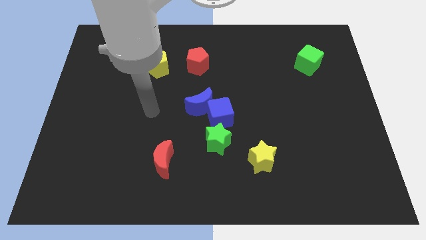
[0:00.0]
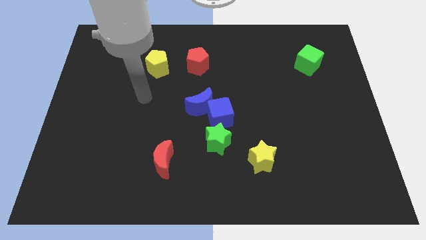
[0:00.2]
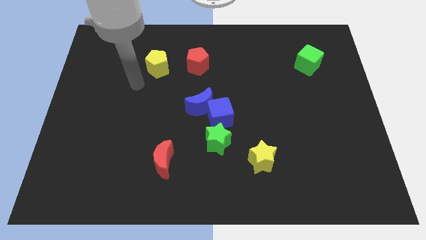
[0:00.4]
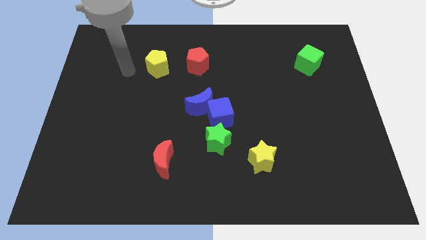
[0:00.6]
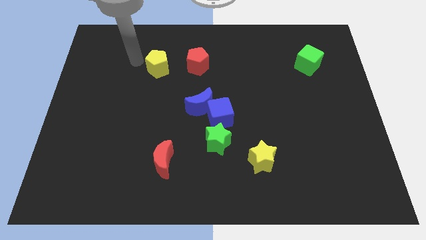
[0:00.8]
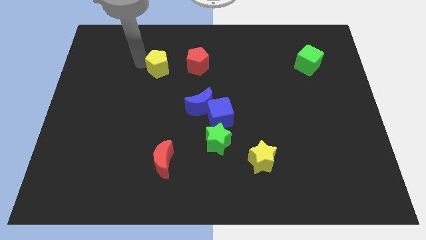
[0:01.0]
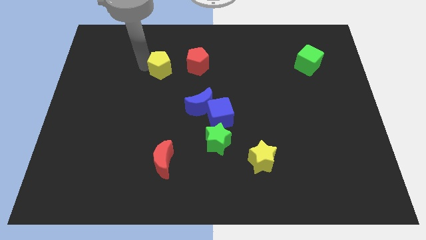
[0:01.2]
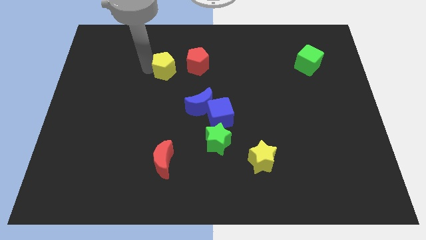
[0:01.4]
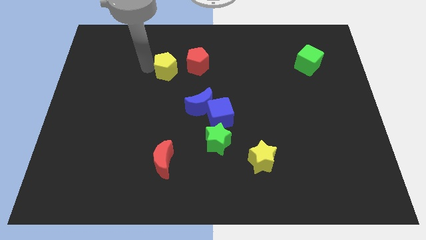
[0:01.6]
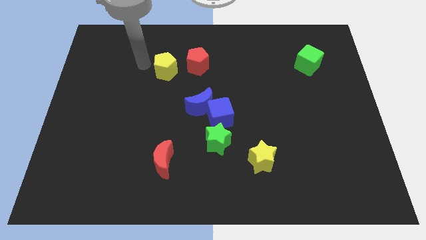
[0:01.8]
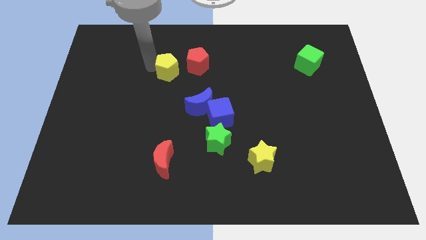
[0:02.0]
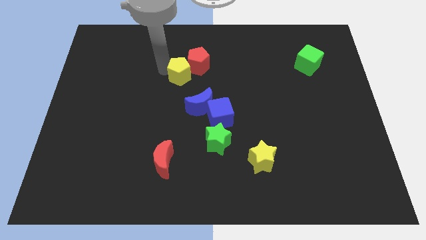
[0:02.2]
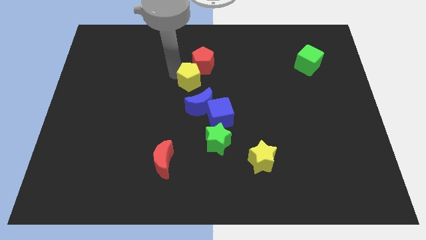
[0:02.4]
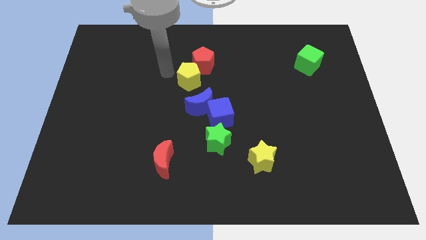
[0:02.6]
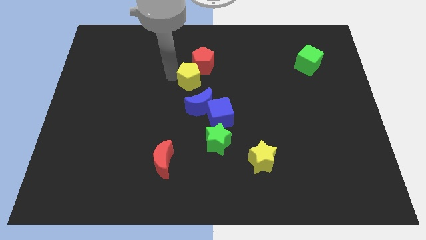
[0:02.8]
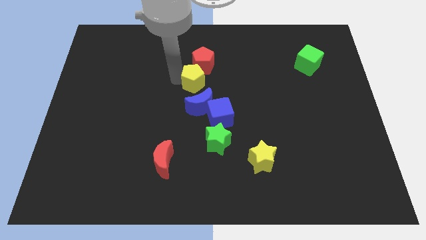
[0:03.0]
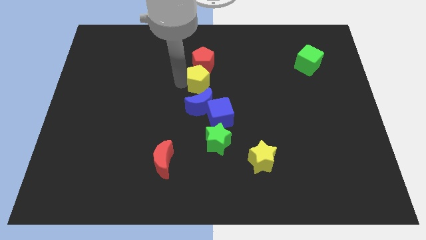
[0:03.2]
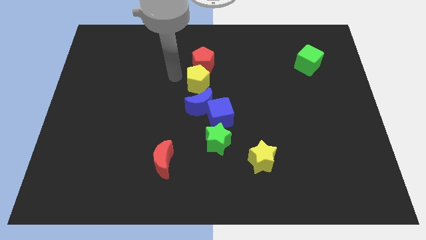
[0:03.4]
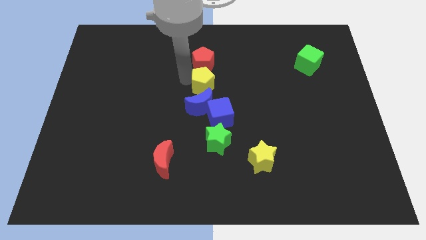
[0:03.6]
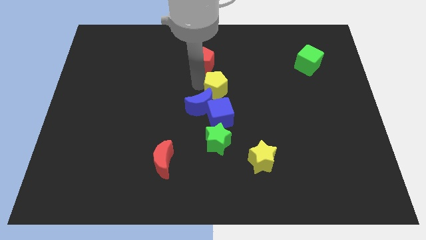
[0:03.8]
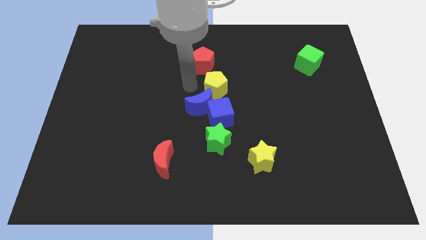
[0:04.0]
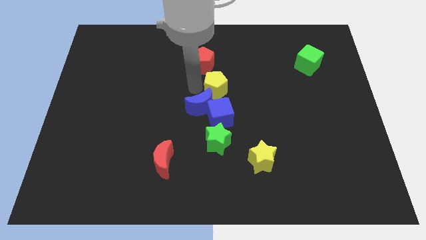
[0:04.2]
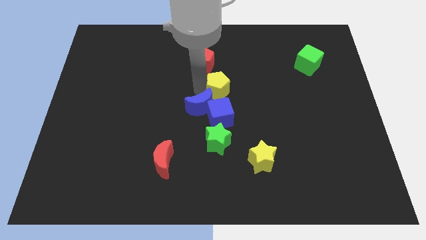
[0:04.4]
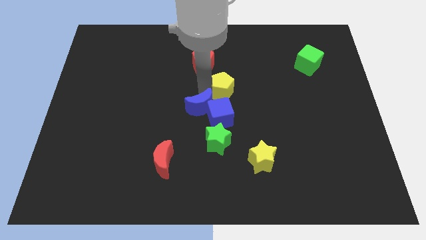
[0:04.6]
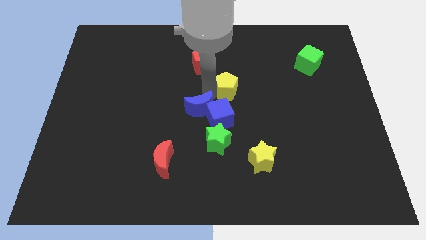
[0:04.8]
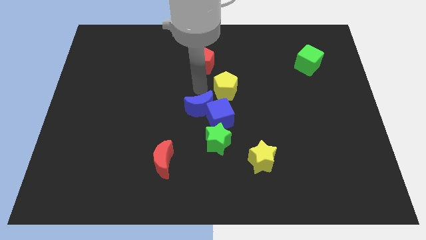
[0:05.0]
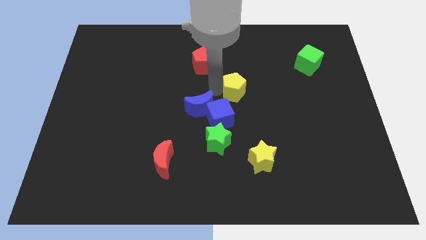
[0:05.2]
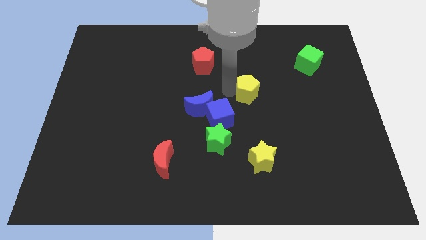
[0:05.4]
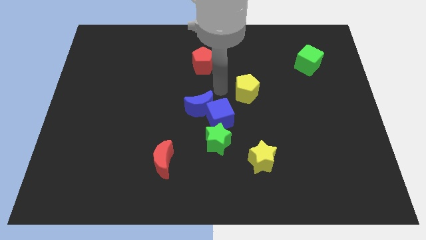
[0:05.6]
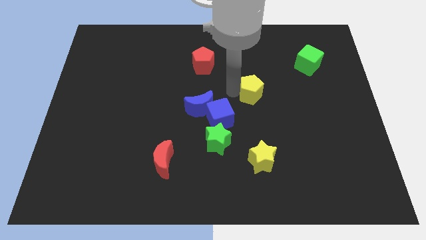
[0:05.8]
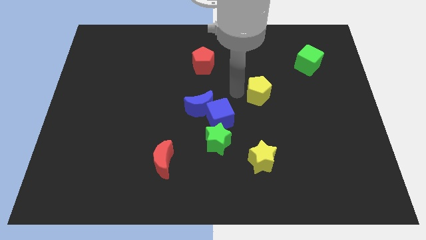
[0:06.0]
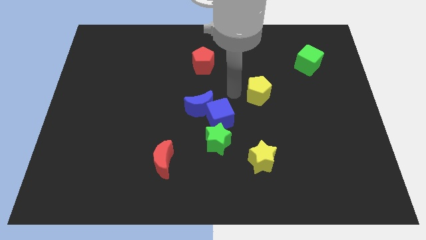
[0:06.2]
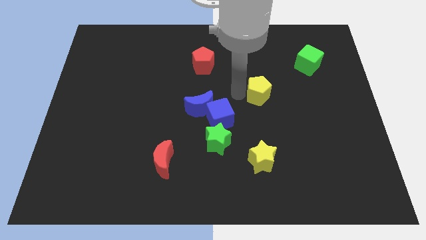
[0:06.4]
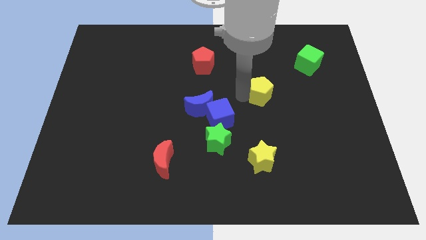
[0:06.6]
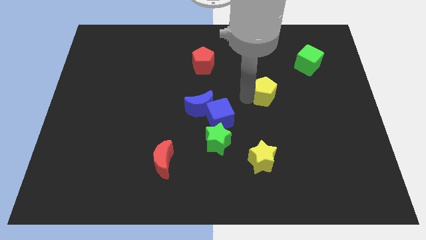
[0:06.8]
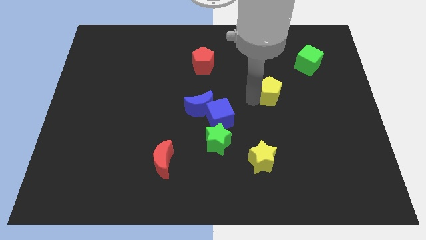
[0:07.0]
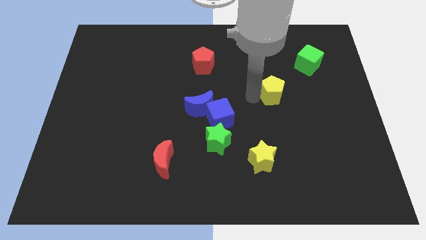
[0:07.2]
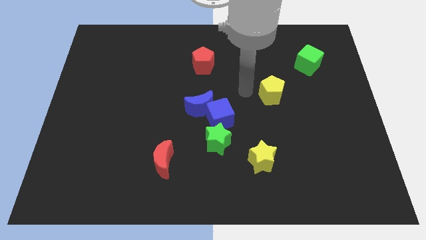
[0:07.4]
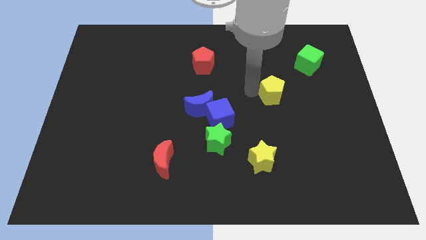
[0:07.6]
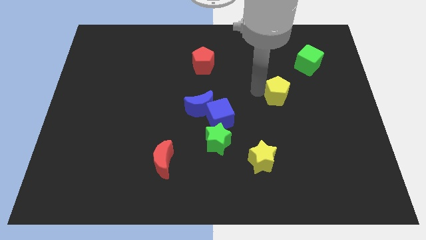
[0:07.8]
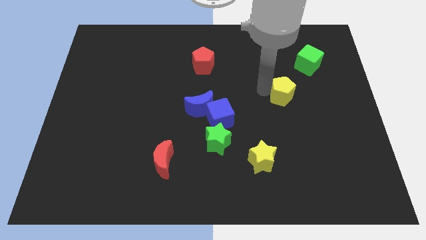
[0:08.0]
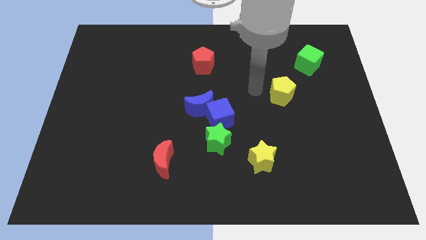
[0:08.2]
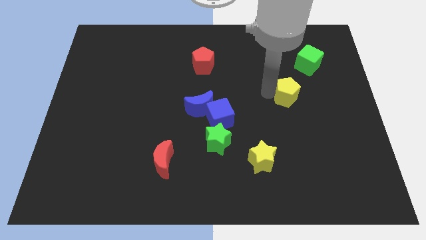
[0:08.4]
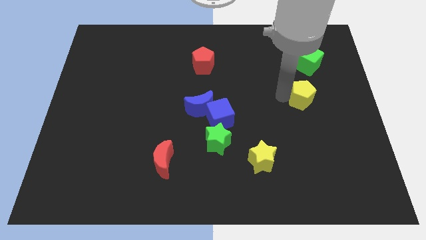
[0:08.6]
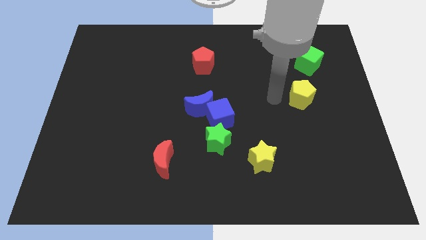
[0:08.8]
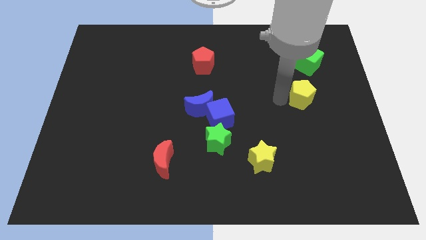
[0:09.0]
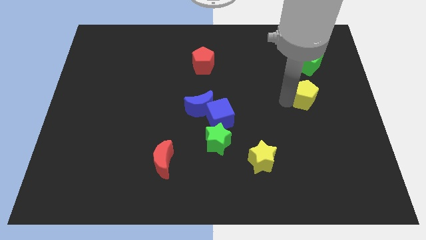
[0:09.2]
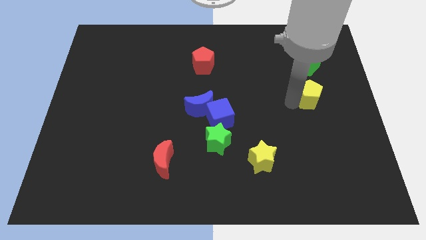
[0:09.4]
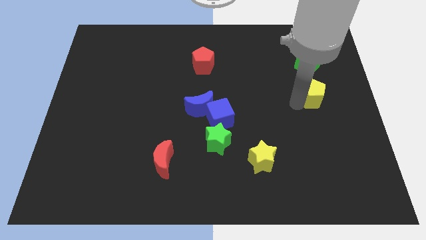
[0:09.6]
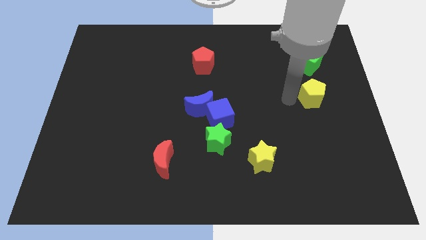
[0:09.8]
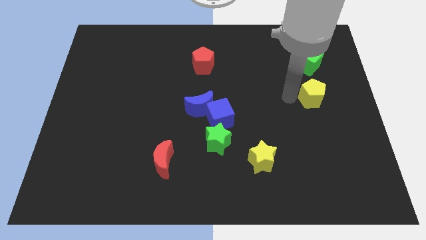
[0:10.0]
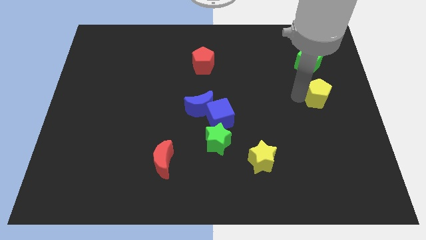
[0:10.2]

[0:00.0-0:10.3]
push the yellow pentagon to the right side

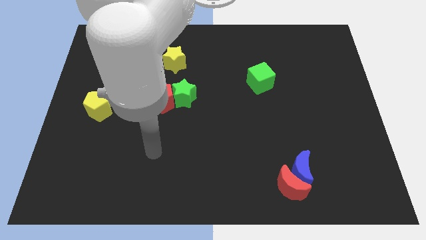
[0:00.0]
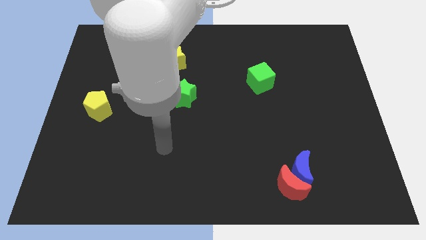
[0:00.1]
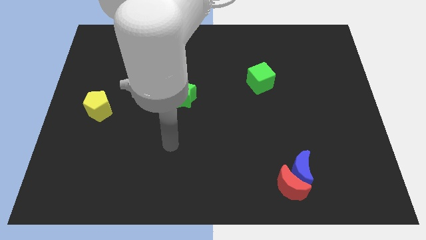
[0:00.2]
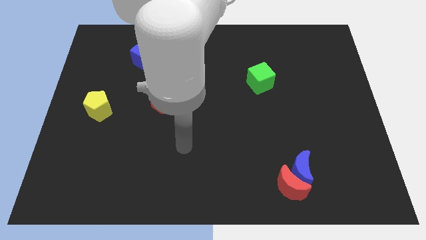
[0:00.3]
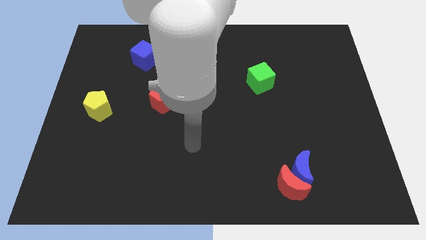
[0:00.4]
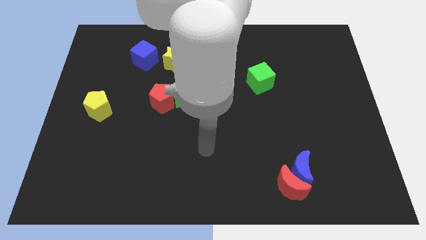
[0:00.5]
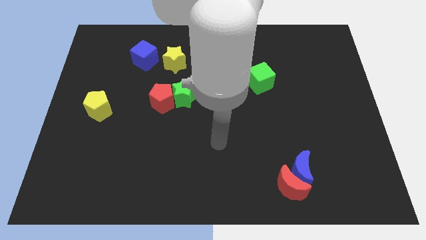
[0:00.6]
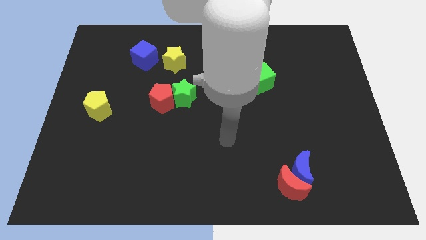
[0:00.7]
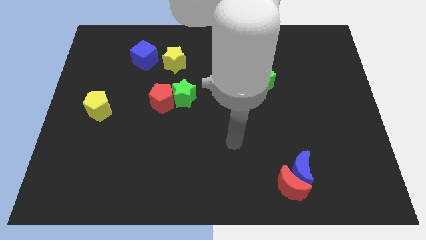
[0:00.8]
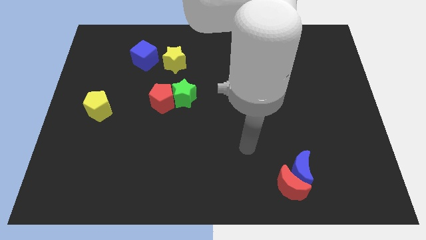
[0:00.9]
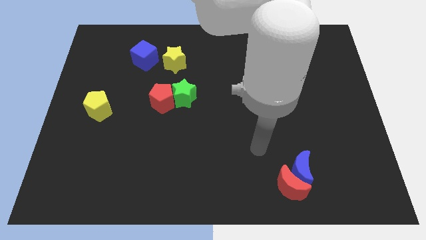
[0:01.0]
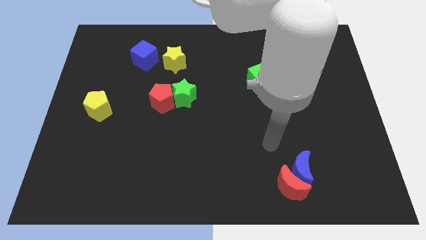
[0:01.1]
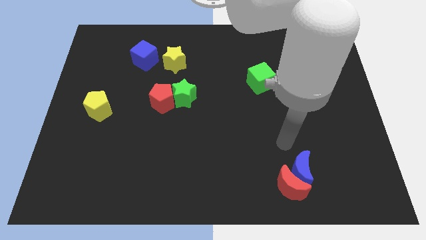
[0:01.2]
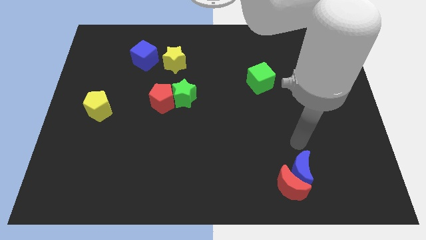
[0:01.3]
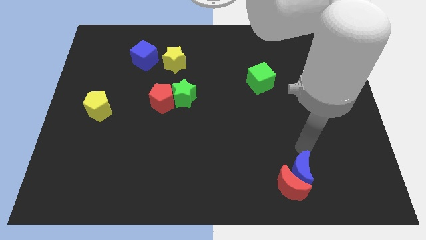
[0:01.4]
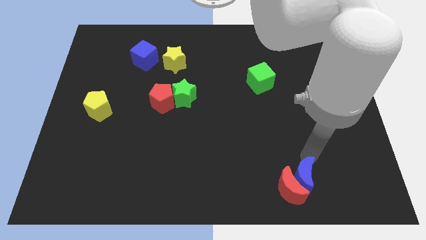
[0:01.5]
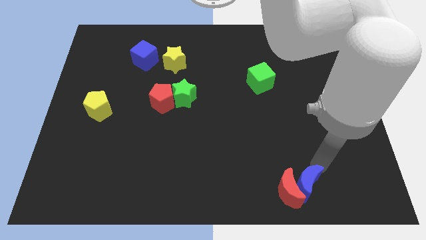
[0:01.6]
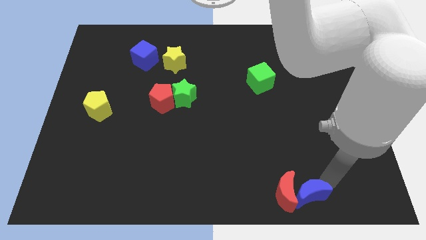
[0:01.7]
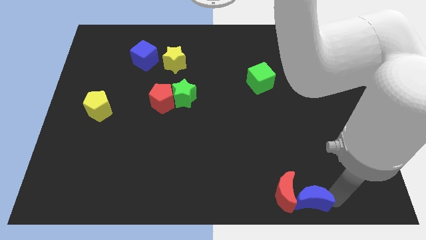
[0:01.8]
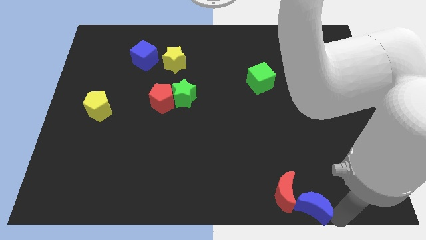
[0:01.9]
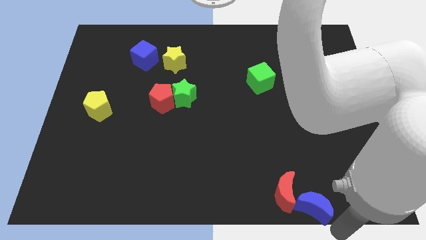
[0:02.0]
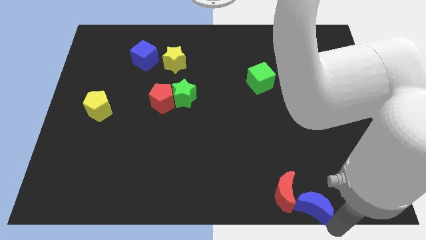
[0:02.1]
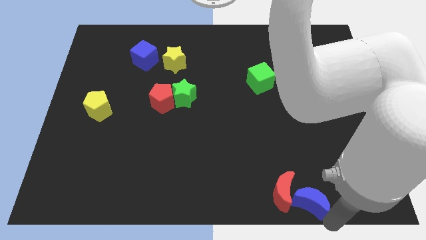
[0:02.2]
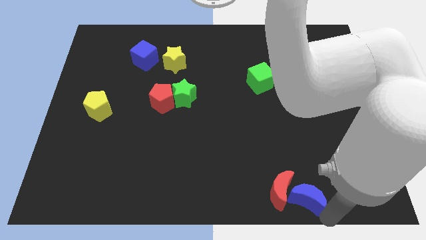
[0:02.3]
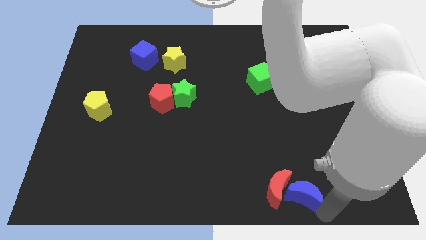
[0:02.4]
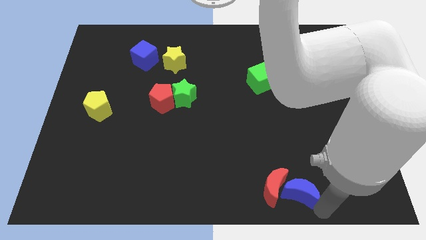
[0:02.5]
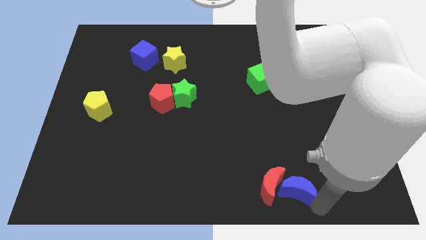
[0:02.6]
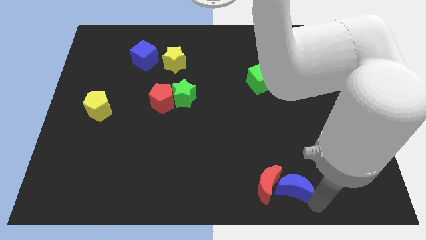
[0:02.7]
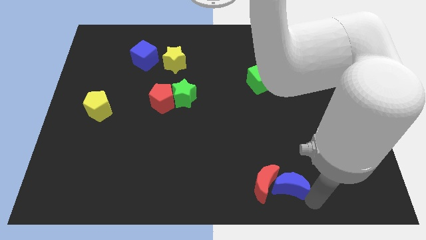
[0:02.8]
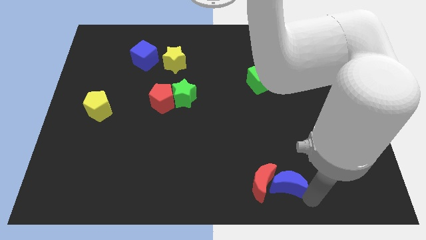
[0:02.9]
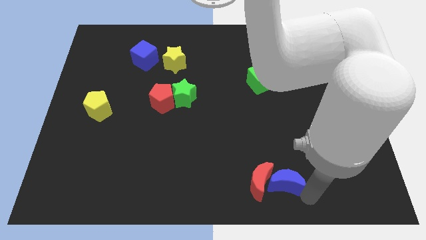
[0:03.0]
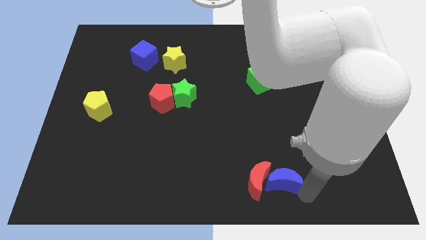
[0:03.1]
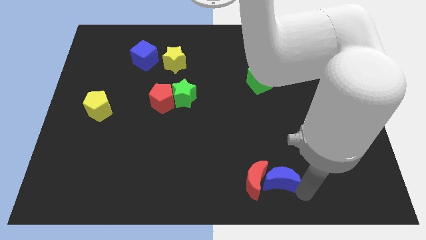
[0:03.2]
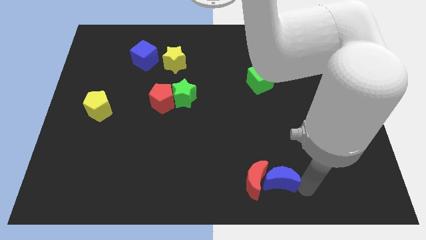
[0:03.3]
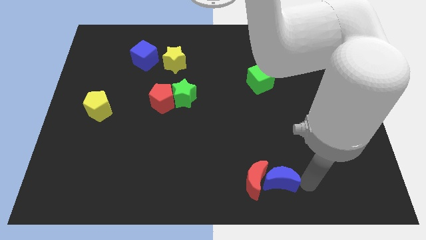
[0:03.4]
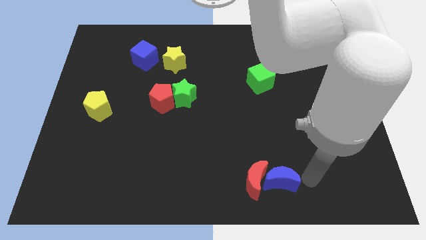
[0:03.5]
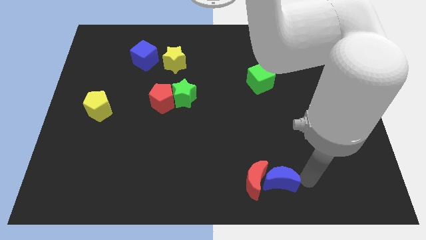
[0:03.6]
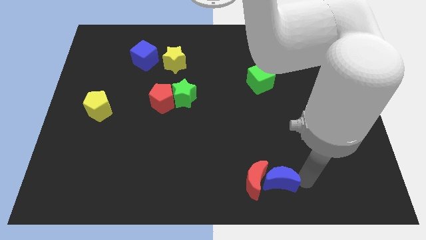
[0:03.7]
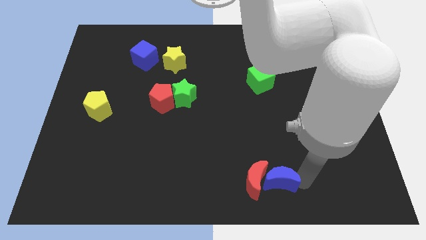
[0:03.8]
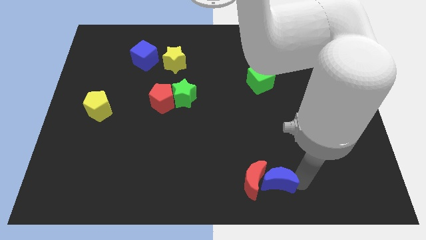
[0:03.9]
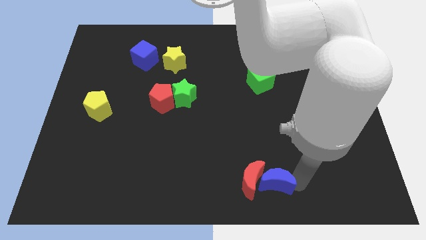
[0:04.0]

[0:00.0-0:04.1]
slide the blue moon to the bottom side
